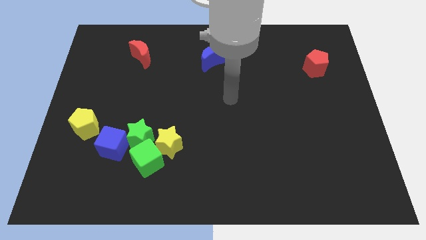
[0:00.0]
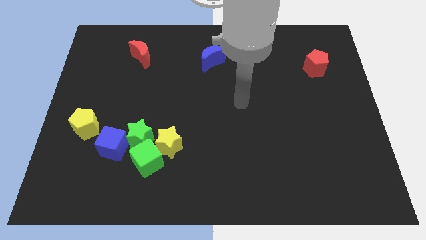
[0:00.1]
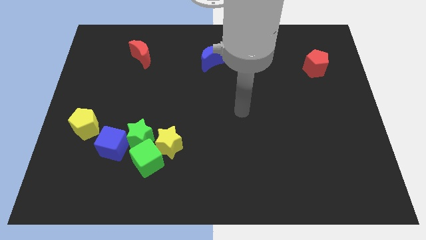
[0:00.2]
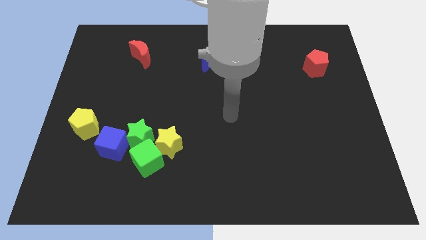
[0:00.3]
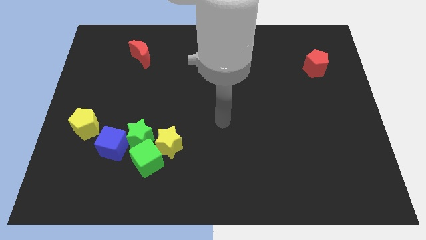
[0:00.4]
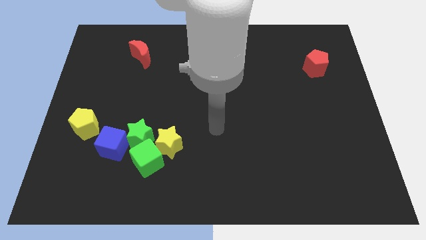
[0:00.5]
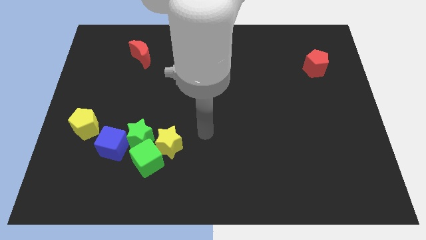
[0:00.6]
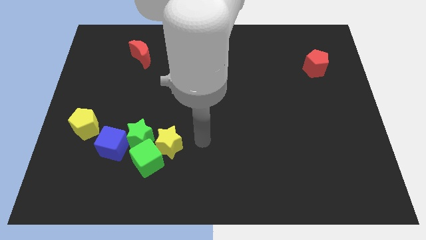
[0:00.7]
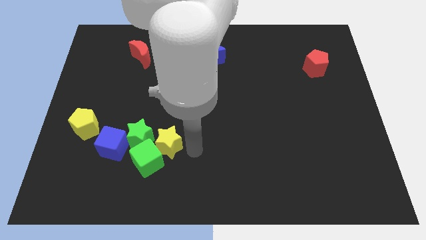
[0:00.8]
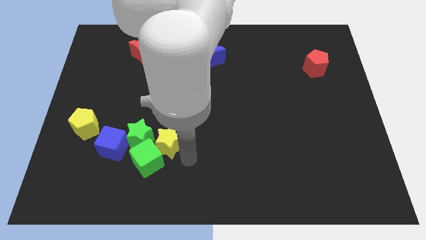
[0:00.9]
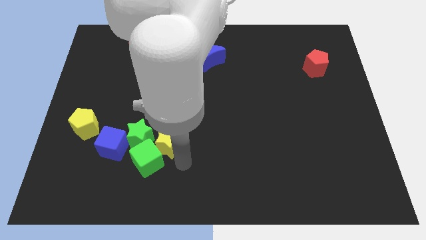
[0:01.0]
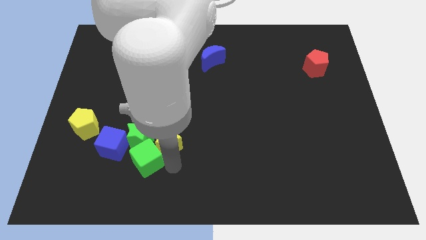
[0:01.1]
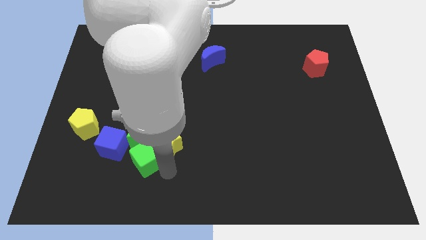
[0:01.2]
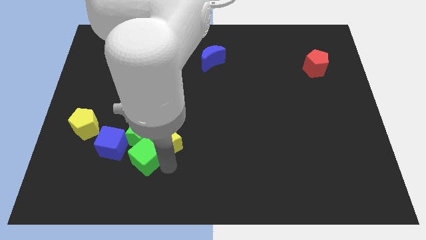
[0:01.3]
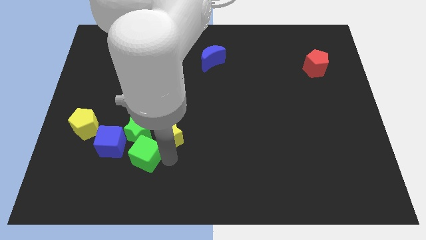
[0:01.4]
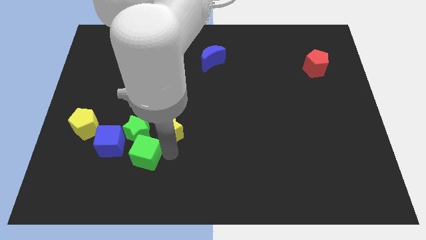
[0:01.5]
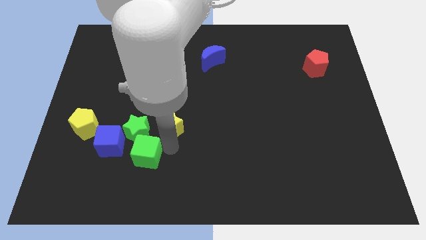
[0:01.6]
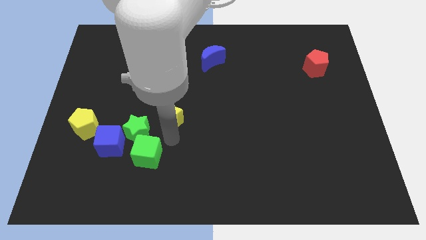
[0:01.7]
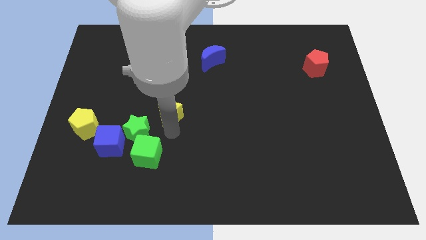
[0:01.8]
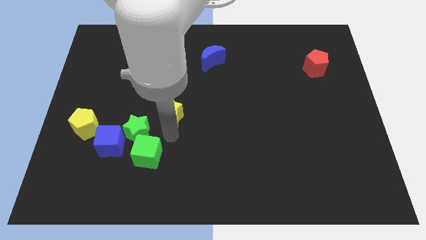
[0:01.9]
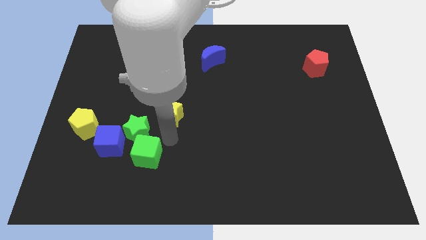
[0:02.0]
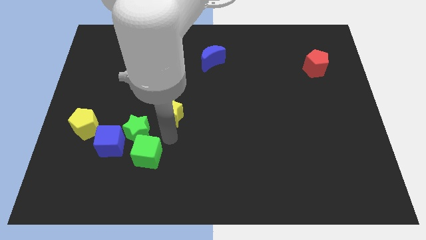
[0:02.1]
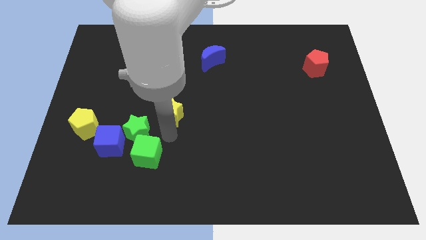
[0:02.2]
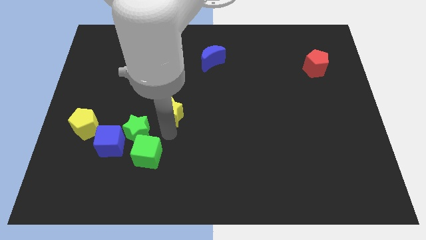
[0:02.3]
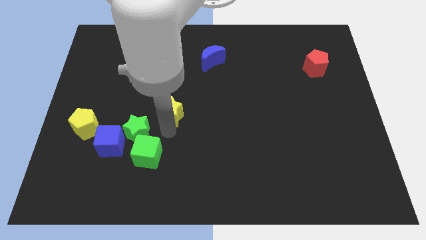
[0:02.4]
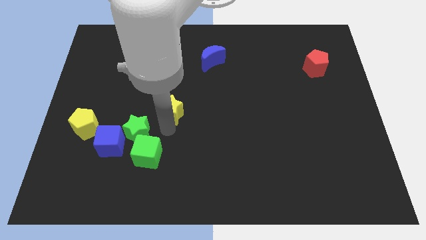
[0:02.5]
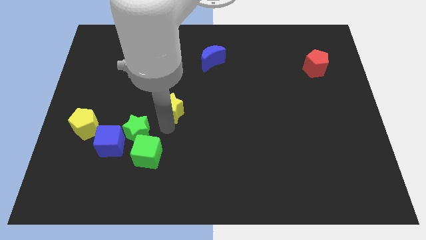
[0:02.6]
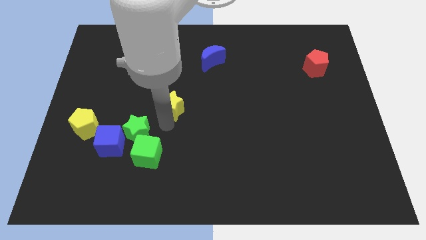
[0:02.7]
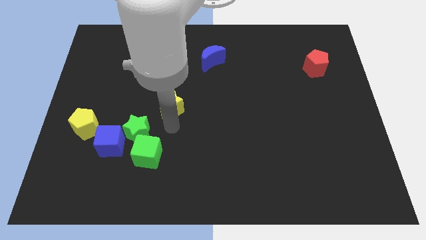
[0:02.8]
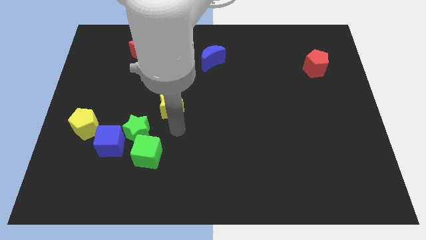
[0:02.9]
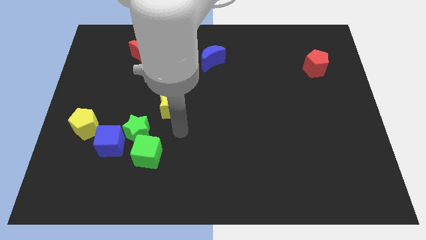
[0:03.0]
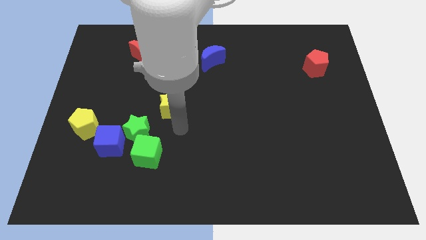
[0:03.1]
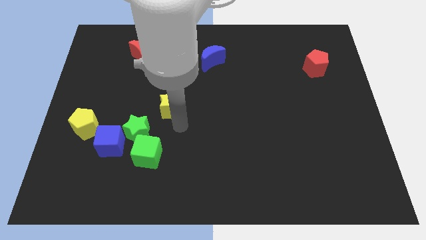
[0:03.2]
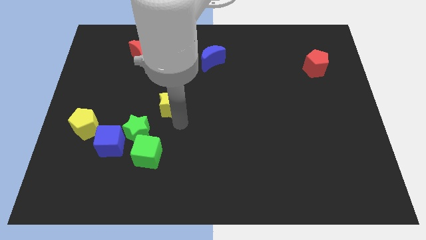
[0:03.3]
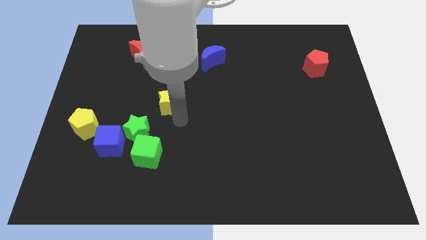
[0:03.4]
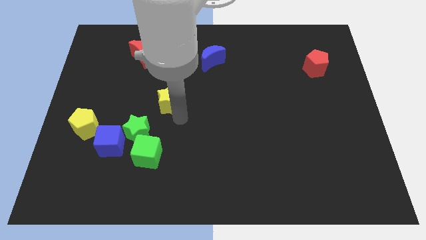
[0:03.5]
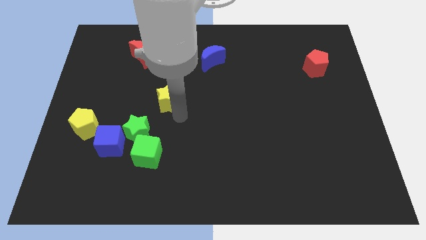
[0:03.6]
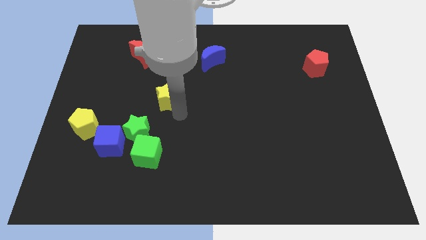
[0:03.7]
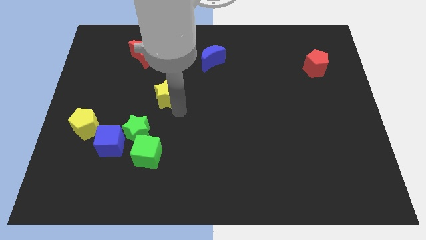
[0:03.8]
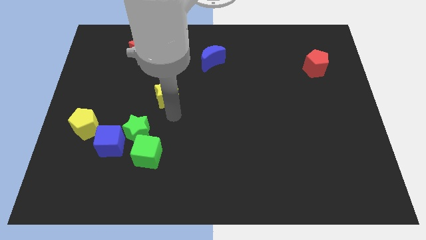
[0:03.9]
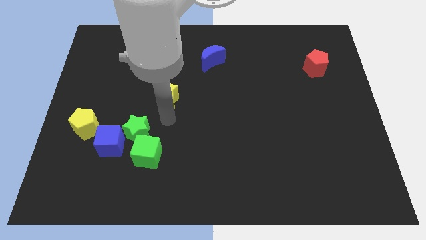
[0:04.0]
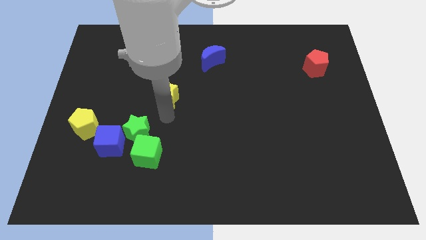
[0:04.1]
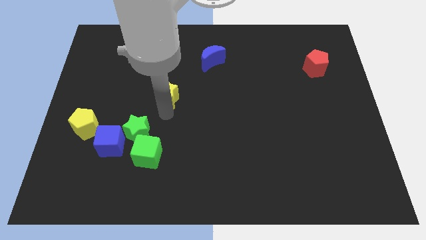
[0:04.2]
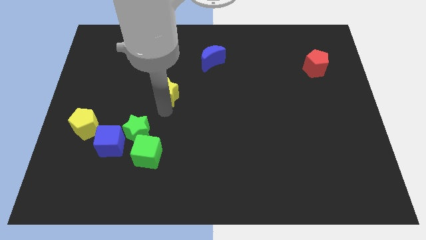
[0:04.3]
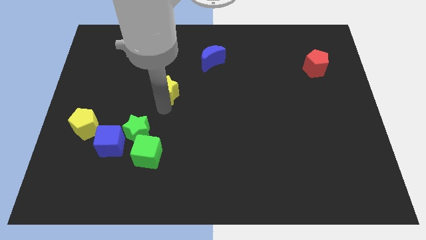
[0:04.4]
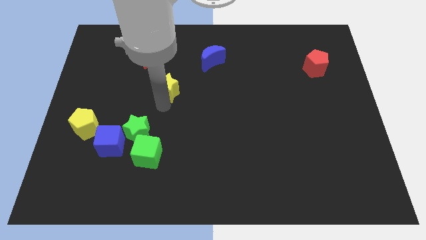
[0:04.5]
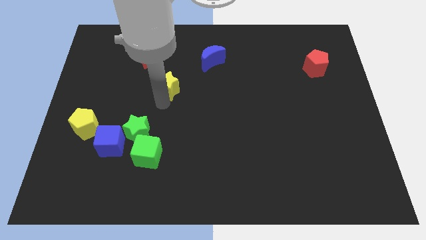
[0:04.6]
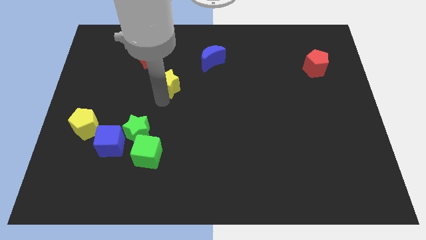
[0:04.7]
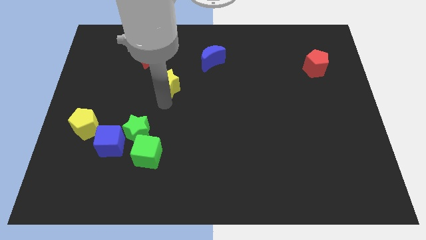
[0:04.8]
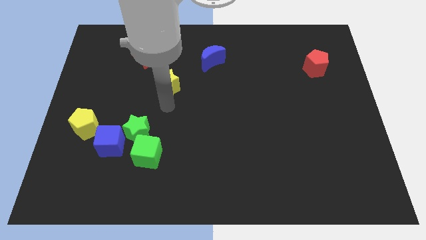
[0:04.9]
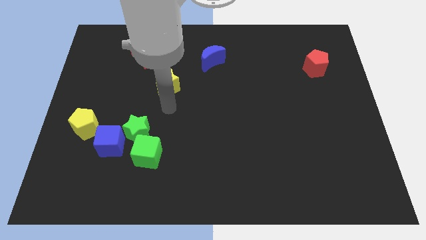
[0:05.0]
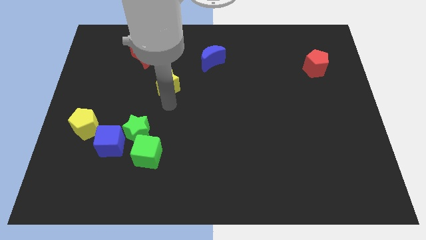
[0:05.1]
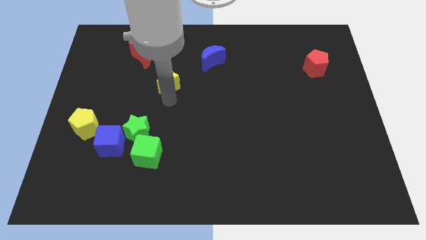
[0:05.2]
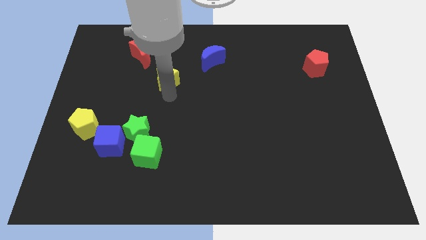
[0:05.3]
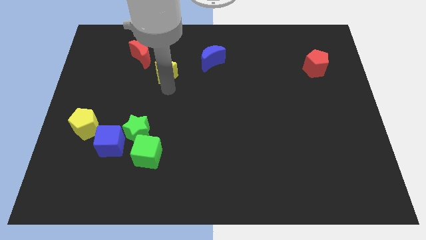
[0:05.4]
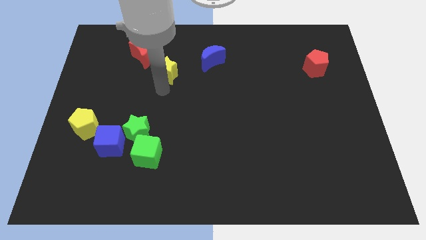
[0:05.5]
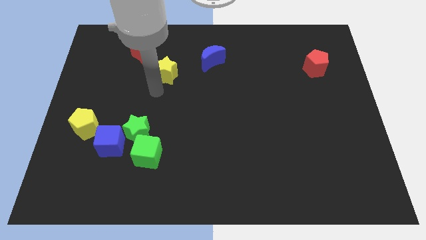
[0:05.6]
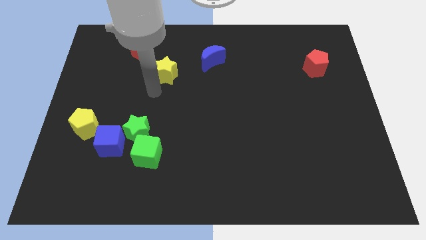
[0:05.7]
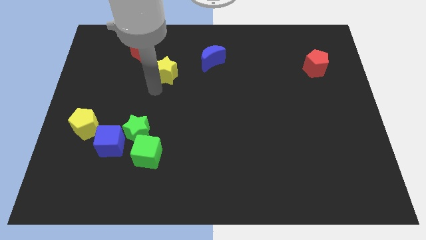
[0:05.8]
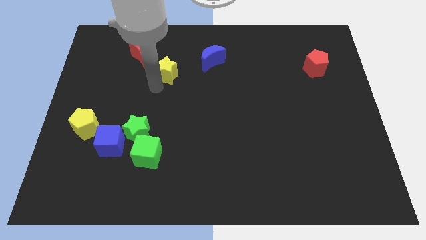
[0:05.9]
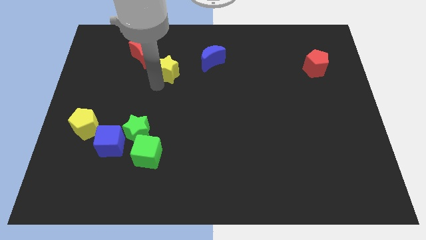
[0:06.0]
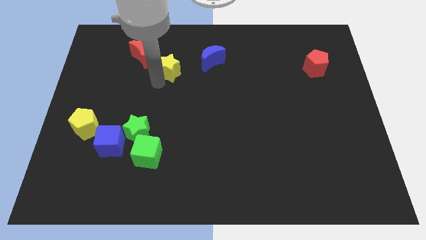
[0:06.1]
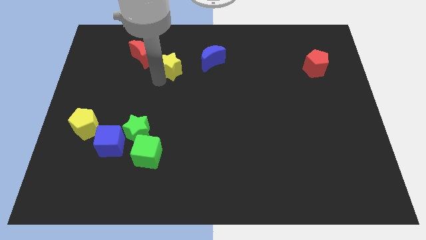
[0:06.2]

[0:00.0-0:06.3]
slide the yellow star right of the red moon
